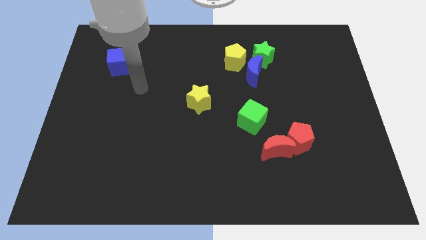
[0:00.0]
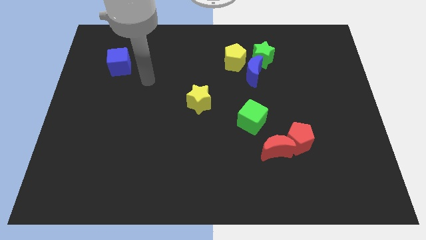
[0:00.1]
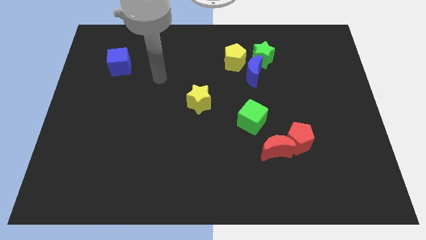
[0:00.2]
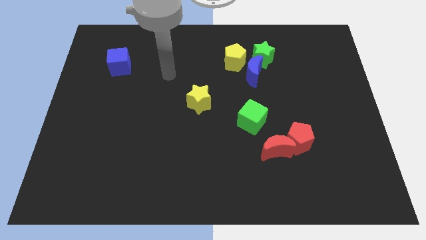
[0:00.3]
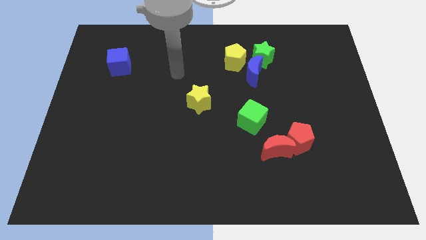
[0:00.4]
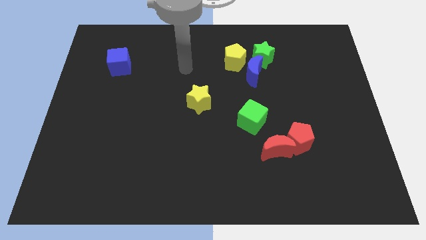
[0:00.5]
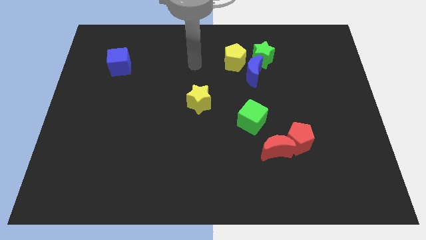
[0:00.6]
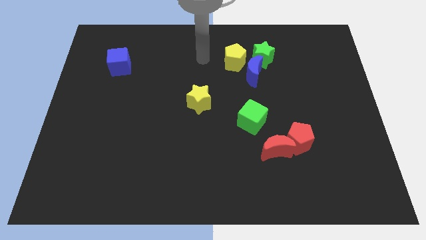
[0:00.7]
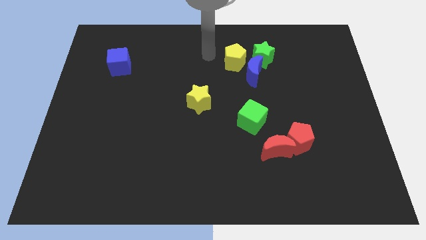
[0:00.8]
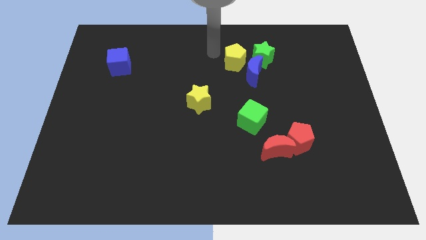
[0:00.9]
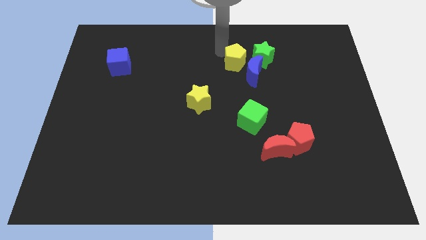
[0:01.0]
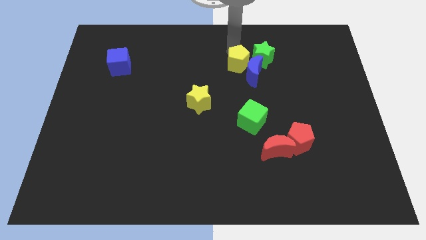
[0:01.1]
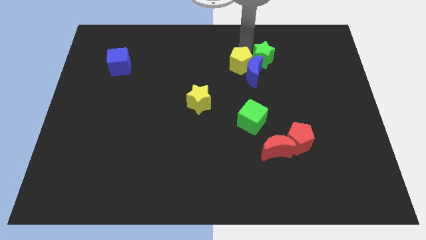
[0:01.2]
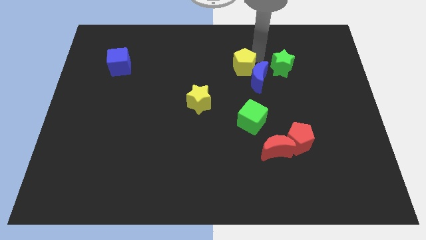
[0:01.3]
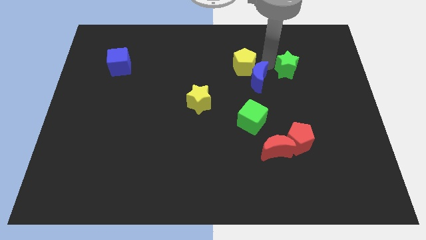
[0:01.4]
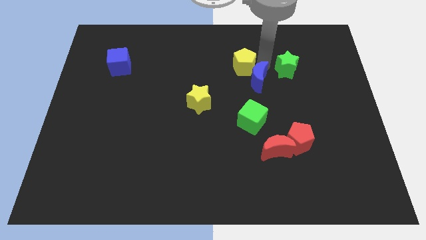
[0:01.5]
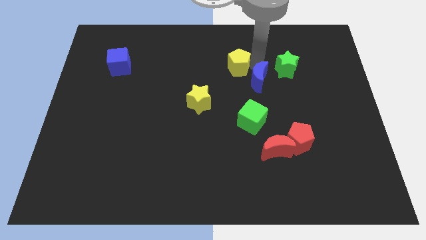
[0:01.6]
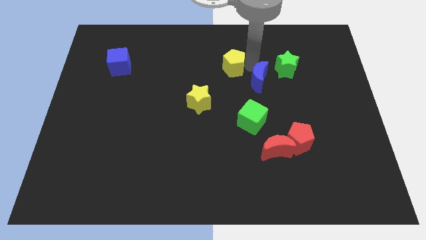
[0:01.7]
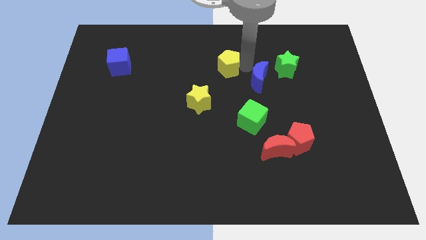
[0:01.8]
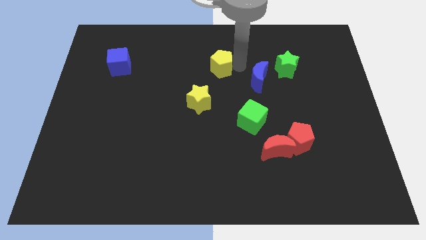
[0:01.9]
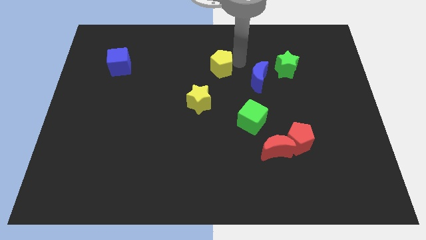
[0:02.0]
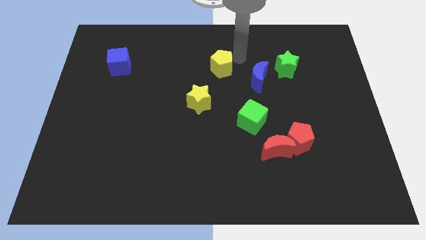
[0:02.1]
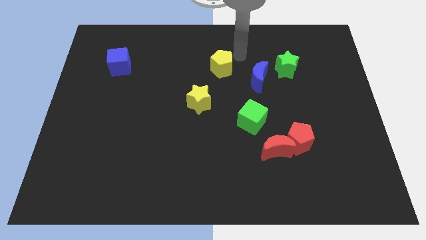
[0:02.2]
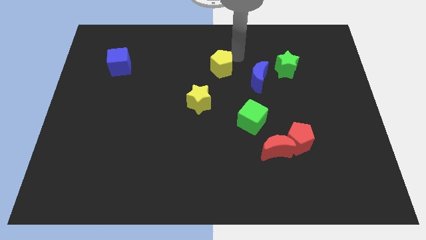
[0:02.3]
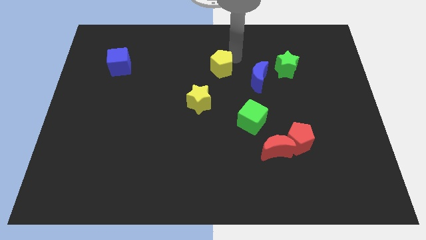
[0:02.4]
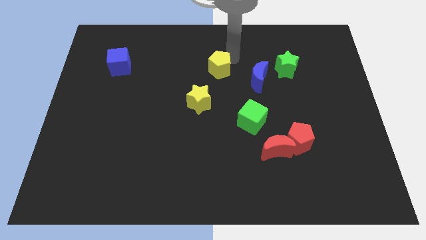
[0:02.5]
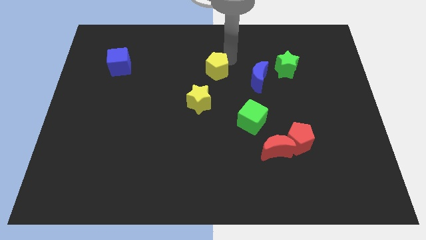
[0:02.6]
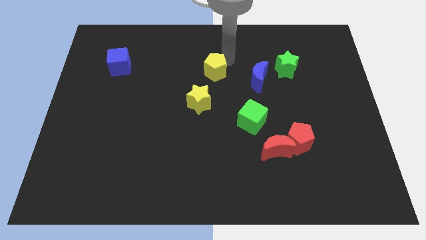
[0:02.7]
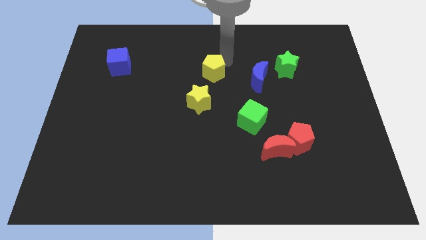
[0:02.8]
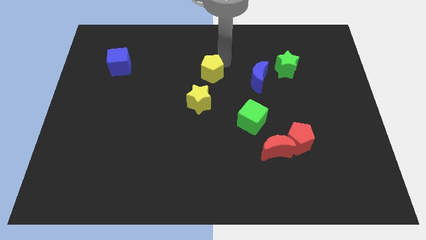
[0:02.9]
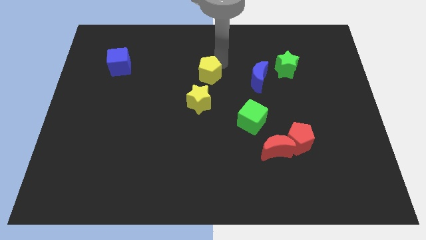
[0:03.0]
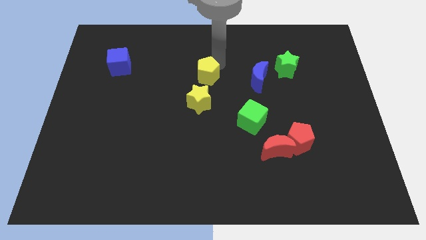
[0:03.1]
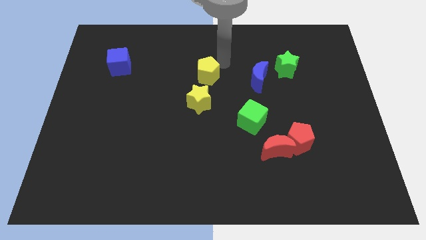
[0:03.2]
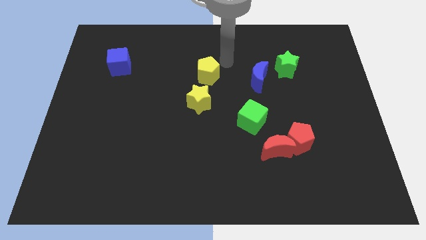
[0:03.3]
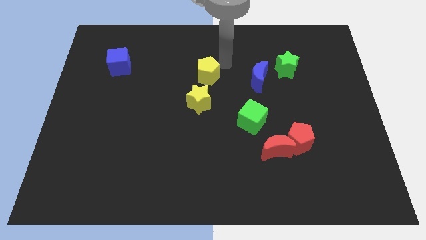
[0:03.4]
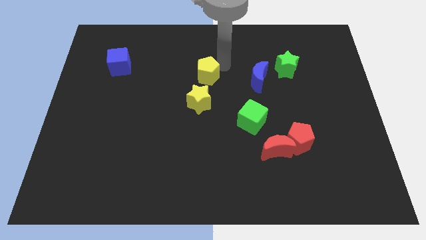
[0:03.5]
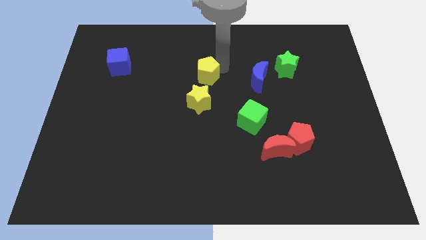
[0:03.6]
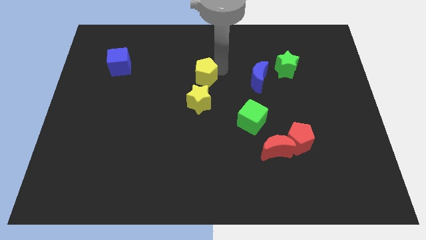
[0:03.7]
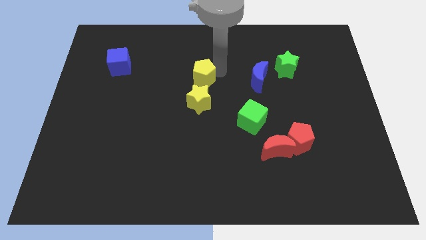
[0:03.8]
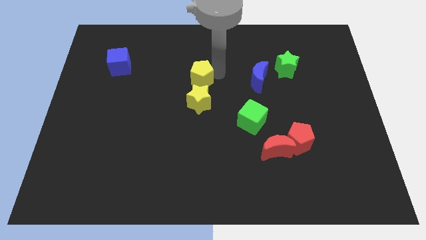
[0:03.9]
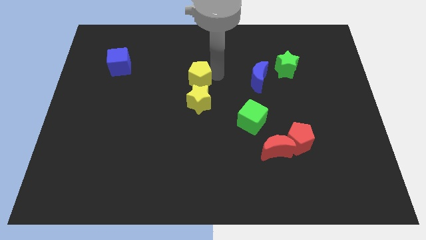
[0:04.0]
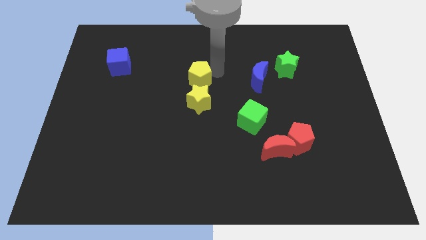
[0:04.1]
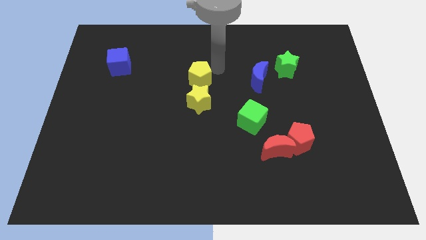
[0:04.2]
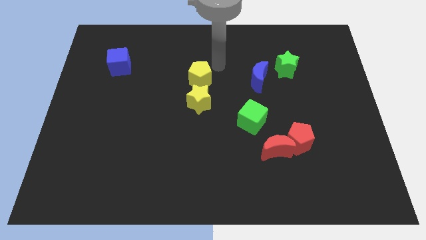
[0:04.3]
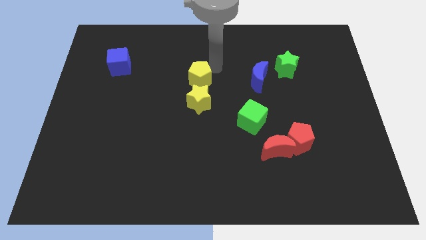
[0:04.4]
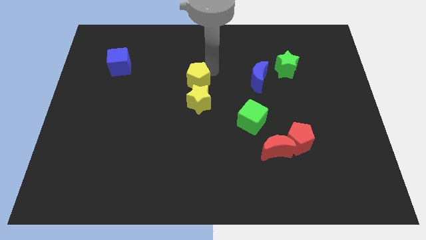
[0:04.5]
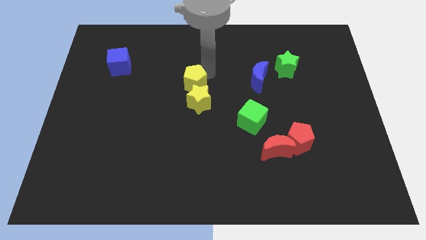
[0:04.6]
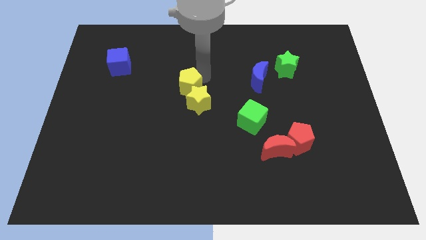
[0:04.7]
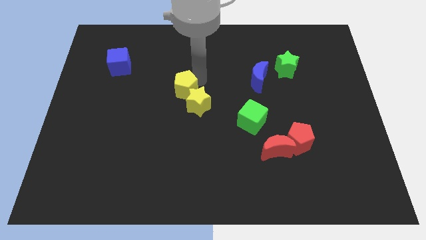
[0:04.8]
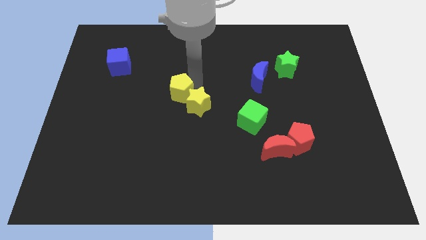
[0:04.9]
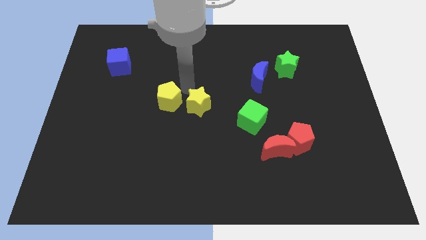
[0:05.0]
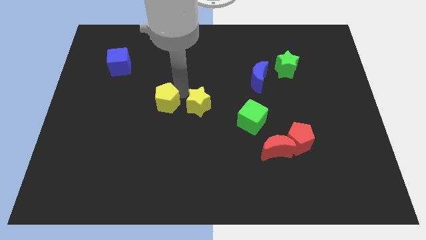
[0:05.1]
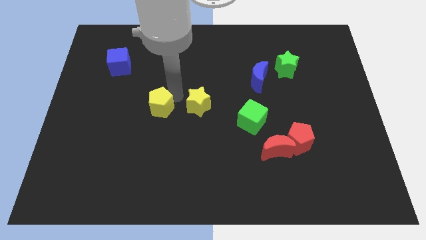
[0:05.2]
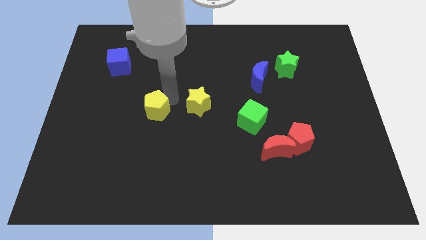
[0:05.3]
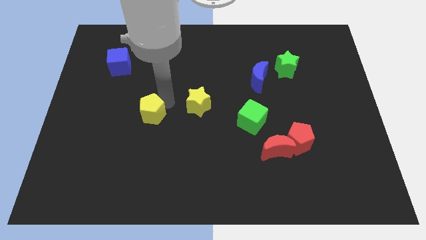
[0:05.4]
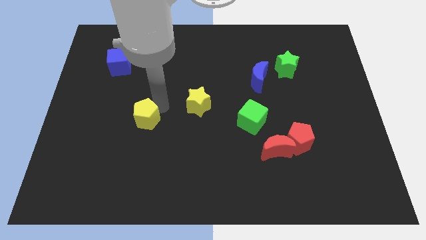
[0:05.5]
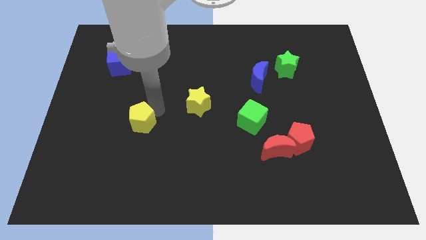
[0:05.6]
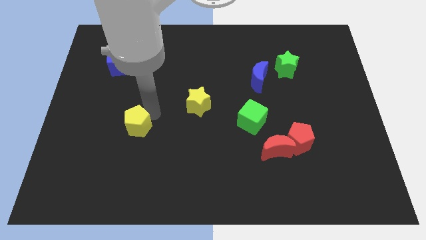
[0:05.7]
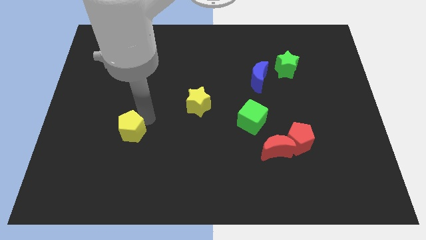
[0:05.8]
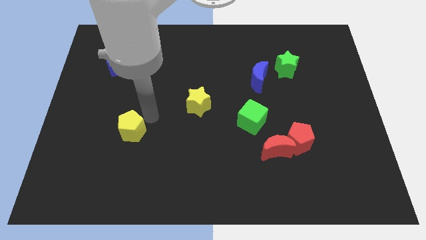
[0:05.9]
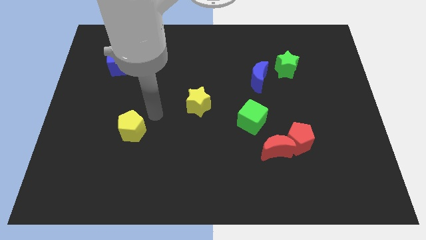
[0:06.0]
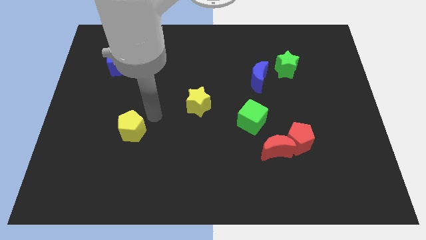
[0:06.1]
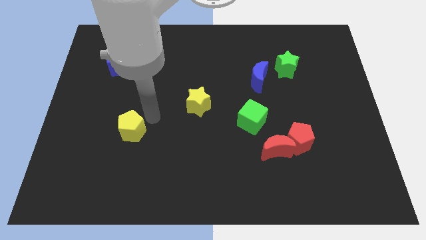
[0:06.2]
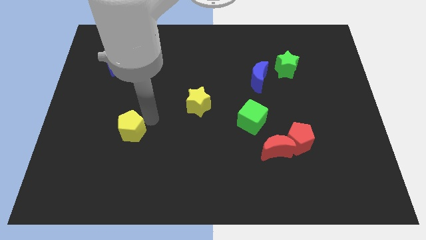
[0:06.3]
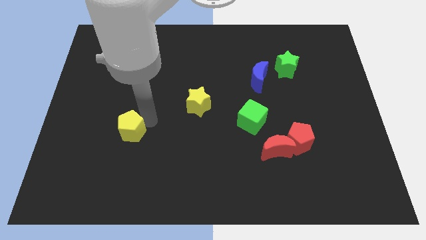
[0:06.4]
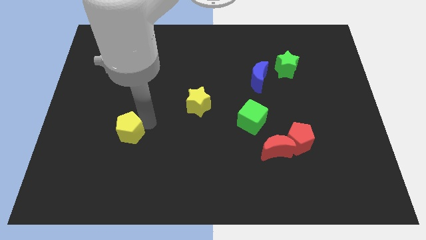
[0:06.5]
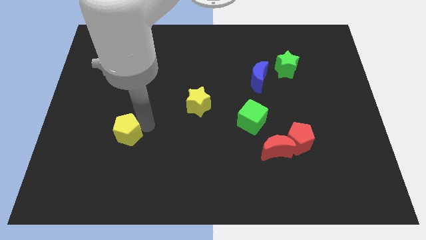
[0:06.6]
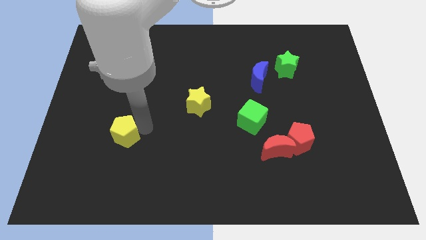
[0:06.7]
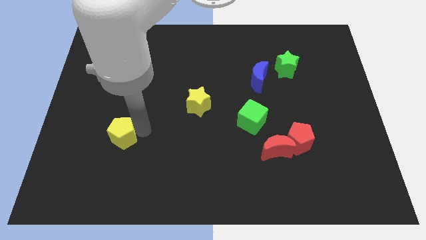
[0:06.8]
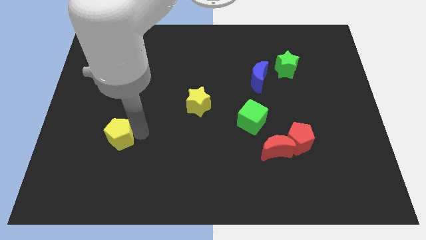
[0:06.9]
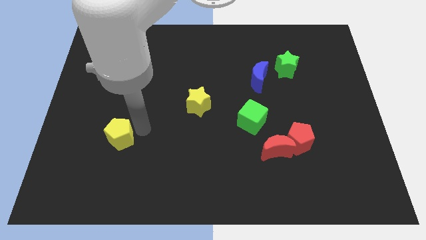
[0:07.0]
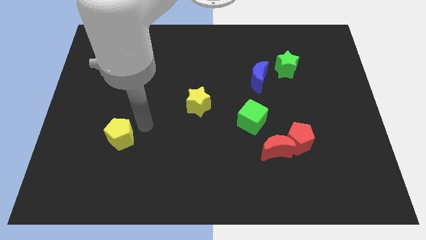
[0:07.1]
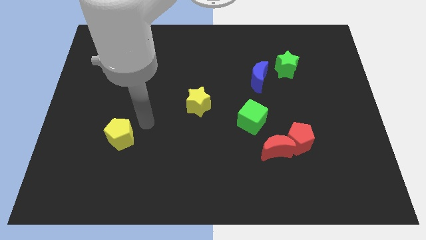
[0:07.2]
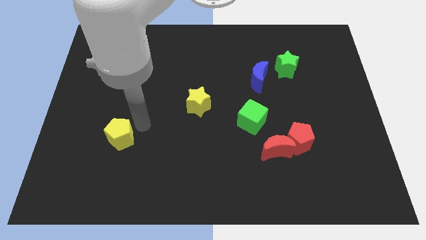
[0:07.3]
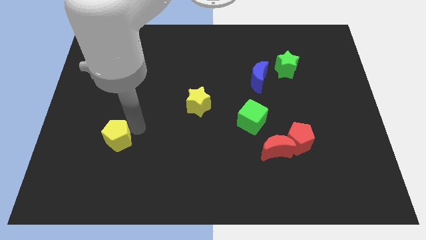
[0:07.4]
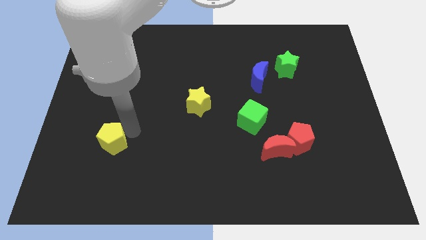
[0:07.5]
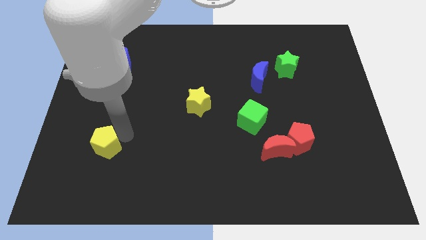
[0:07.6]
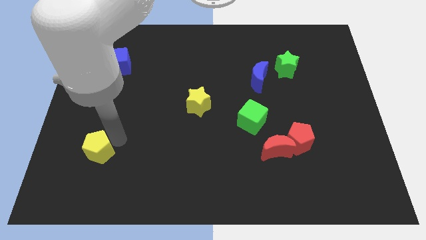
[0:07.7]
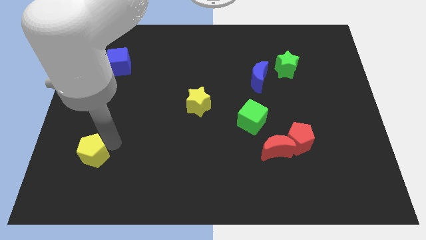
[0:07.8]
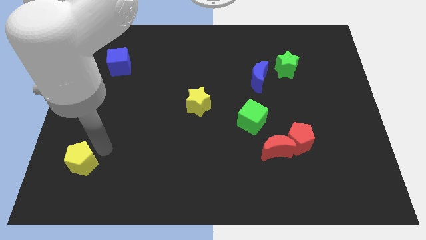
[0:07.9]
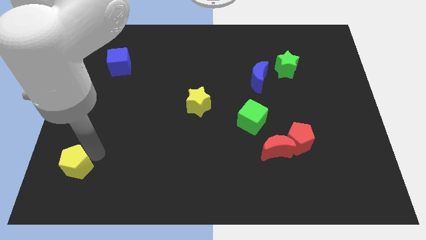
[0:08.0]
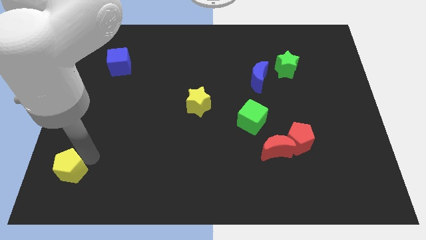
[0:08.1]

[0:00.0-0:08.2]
move the yellow pentagon to the bottom left of the board

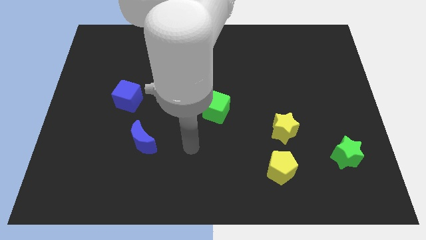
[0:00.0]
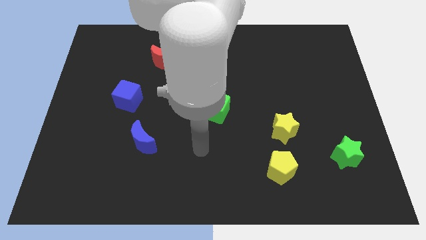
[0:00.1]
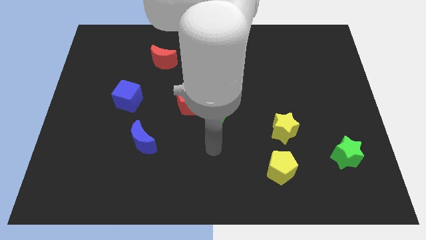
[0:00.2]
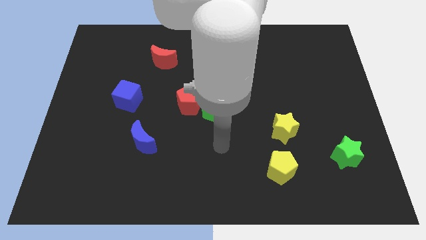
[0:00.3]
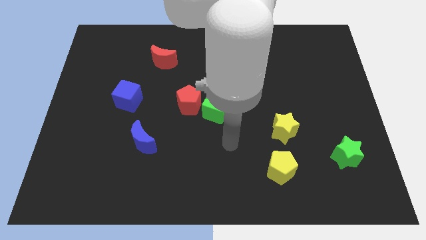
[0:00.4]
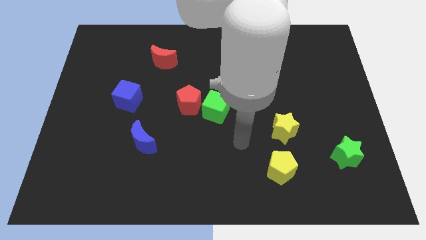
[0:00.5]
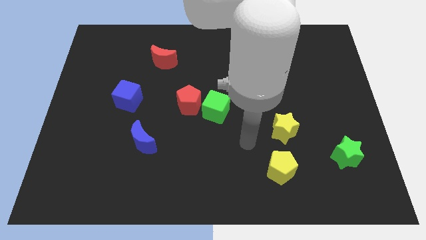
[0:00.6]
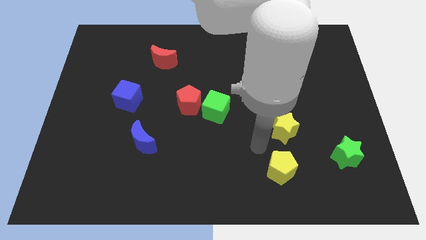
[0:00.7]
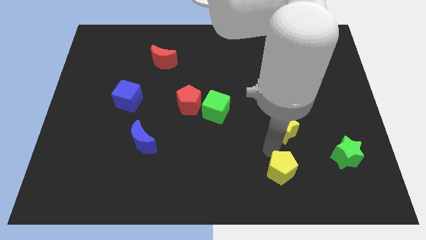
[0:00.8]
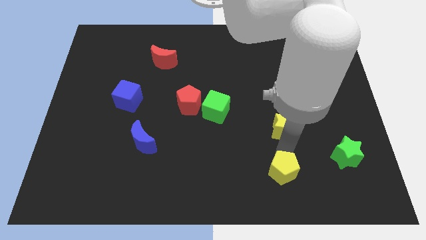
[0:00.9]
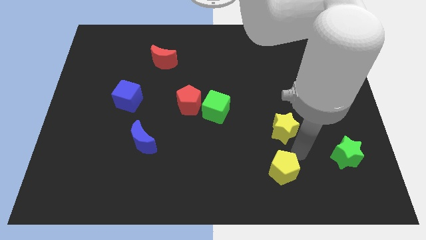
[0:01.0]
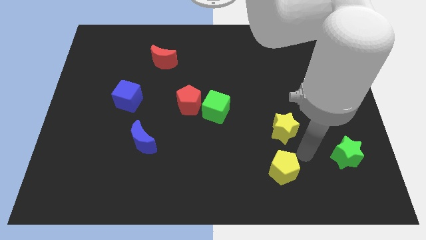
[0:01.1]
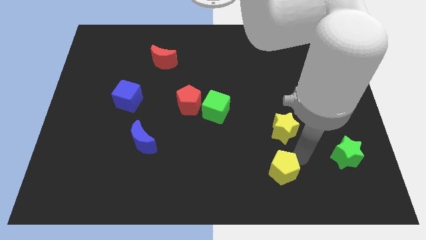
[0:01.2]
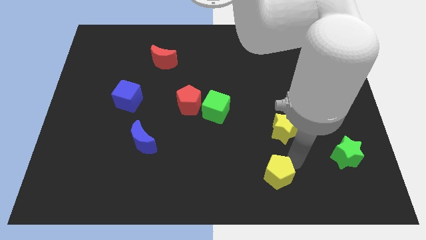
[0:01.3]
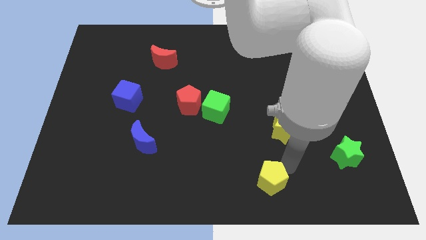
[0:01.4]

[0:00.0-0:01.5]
move the yellow pentagon to the bottom
